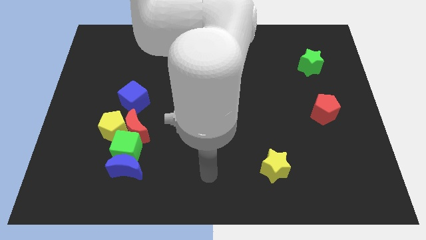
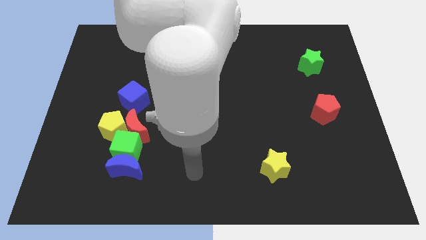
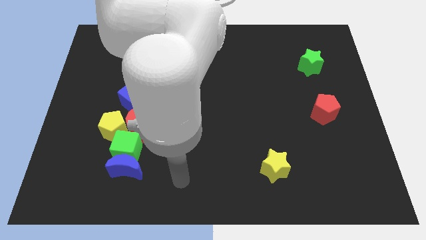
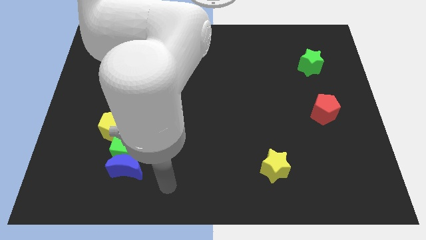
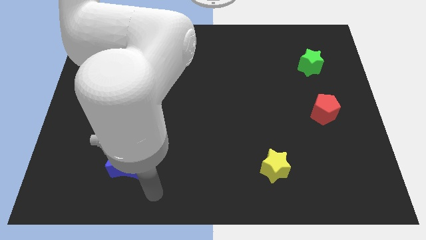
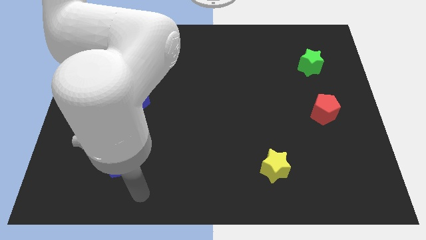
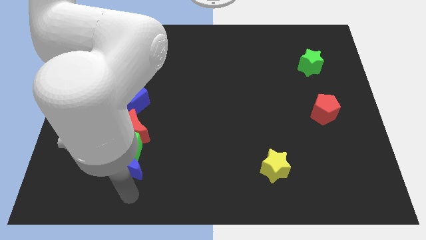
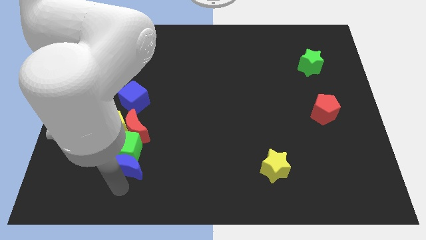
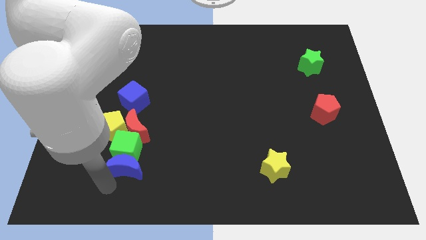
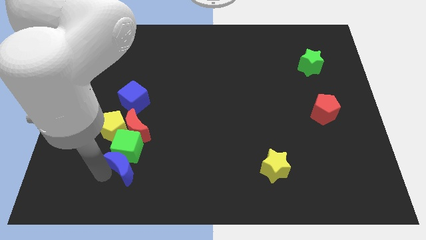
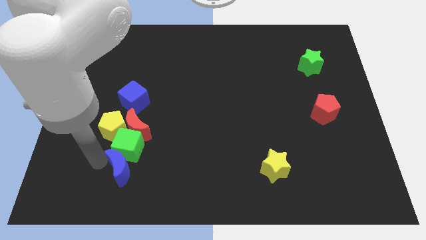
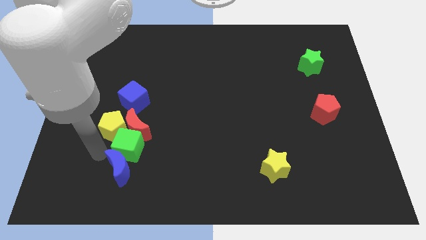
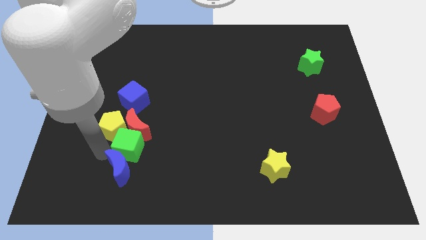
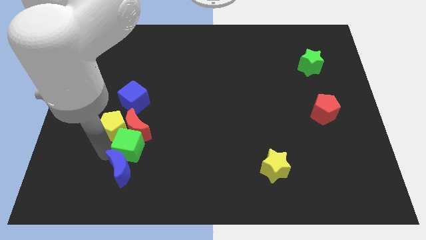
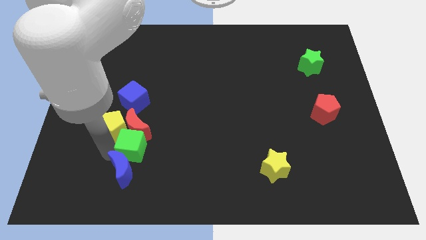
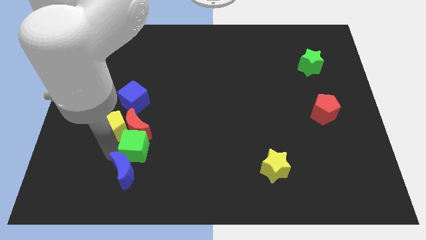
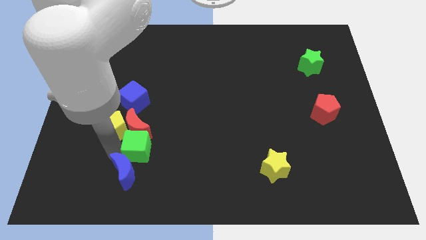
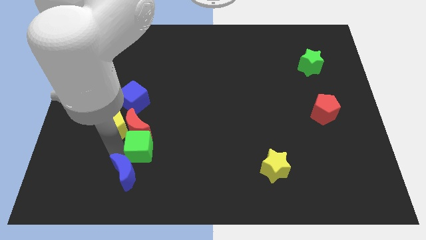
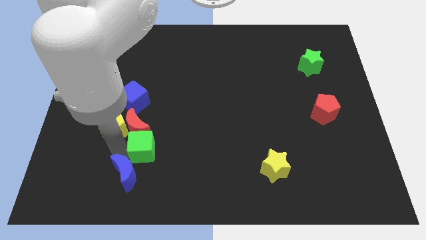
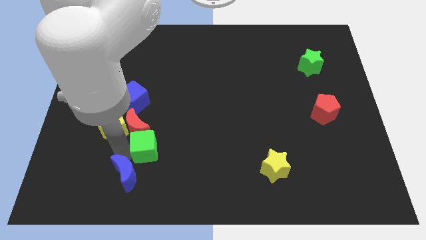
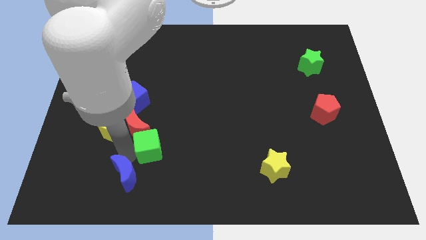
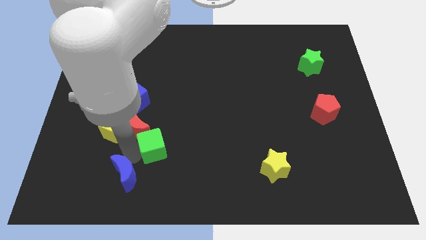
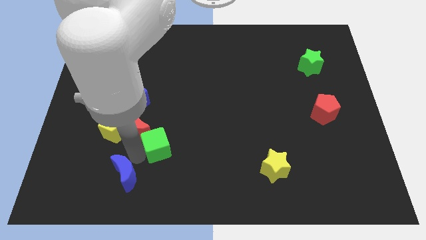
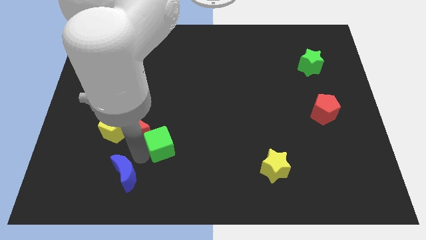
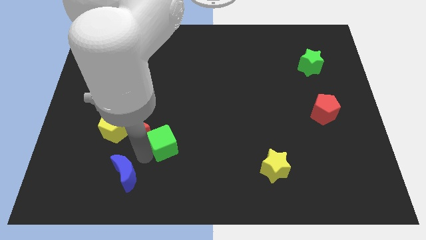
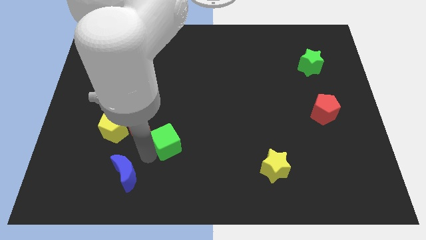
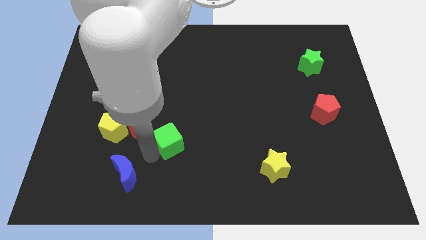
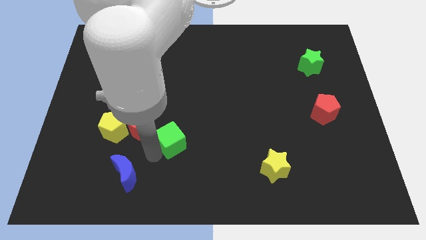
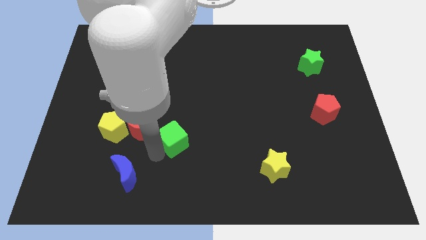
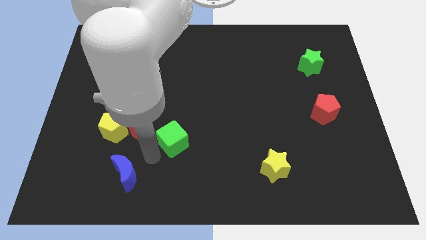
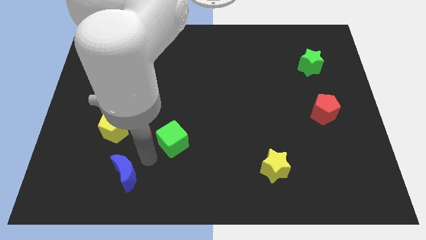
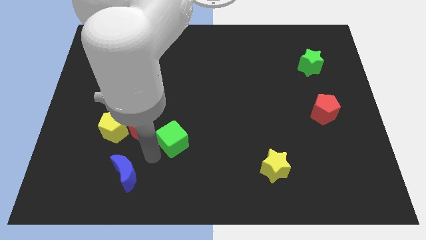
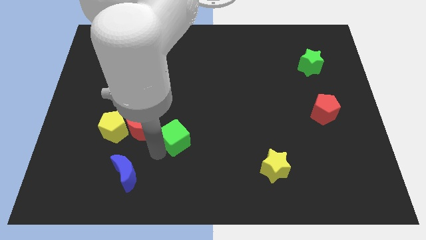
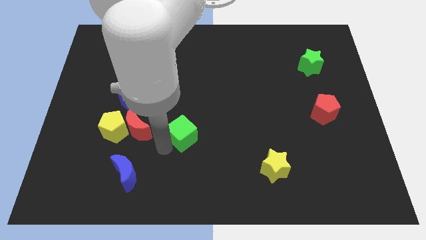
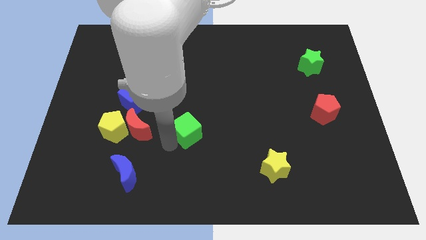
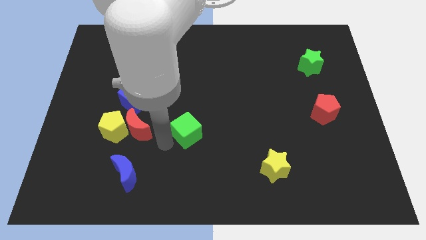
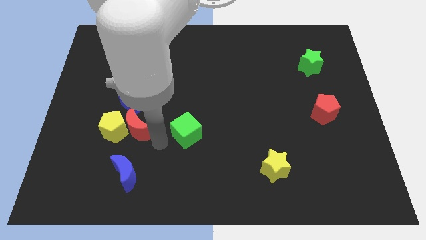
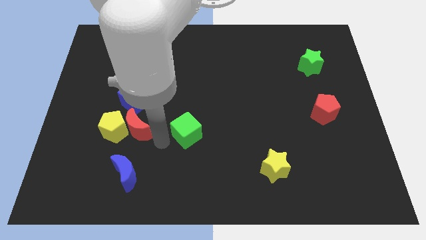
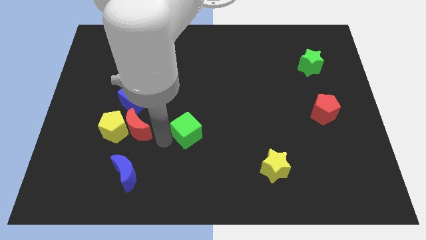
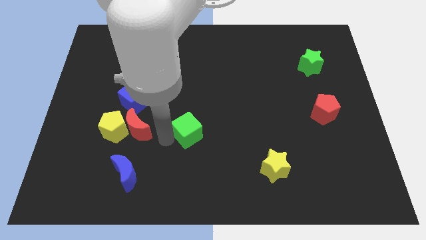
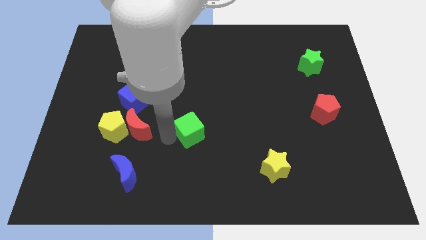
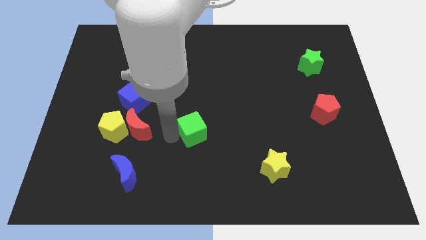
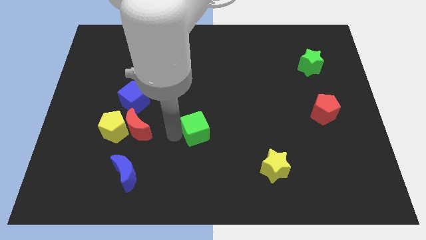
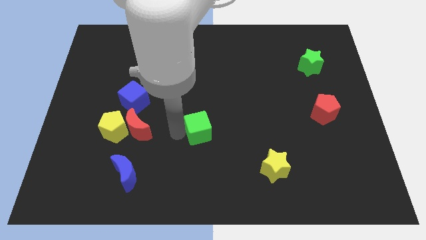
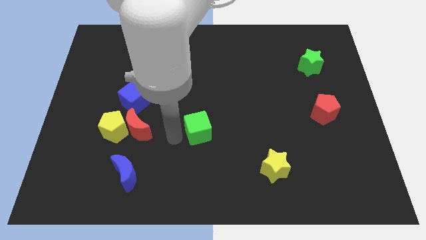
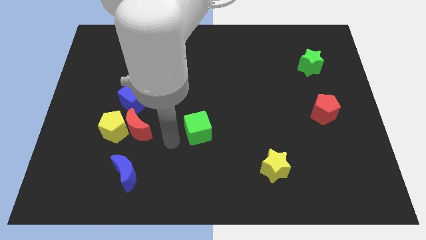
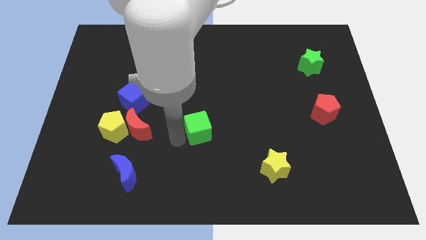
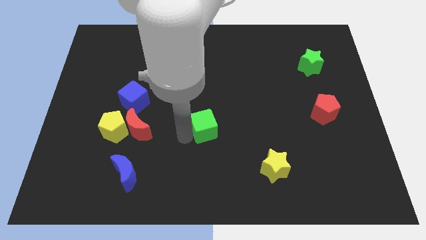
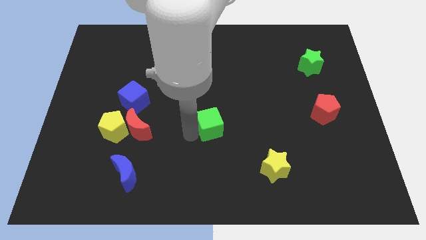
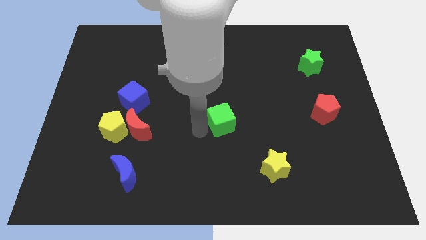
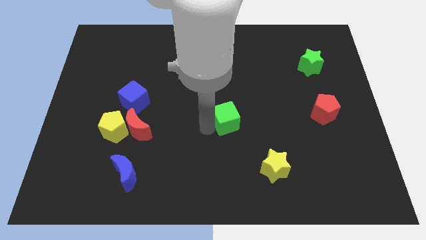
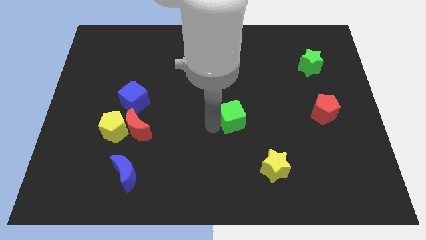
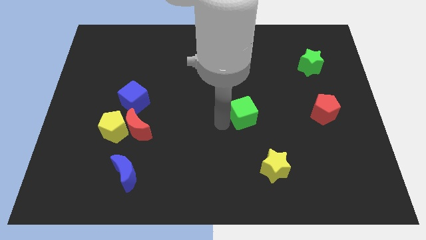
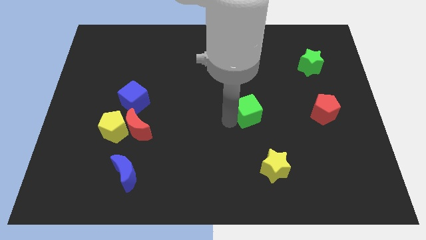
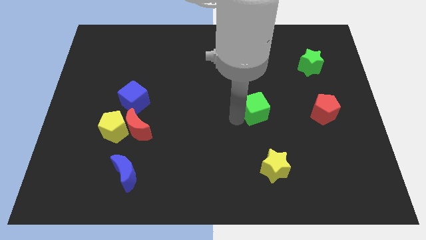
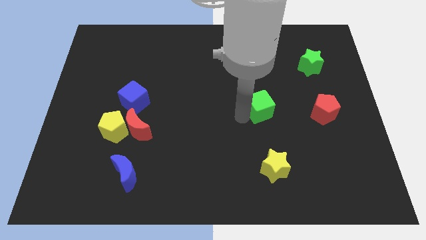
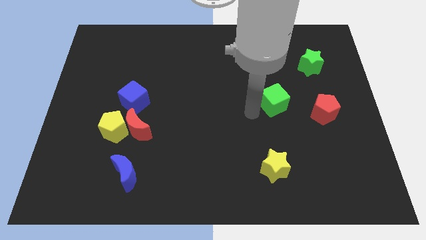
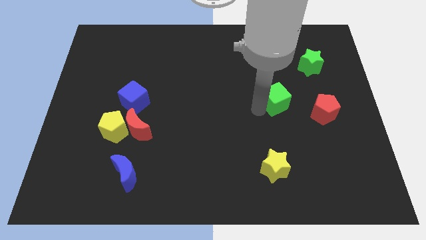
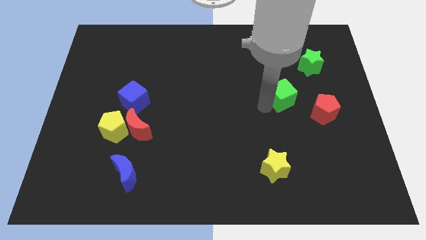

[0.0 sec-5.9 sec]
put the green cube to the top left of the red pentagon

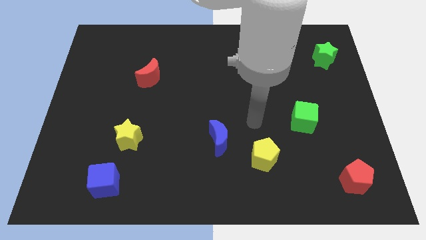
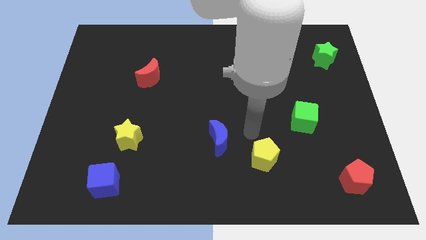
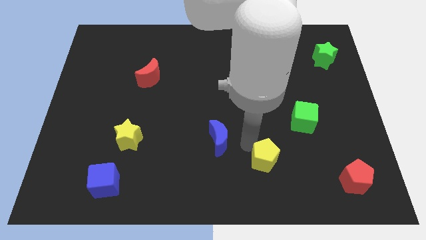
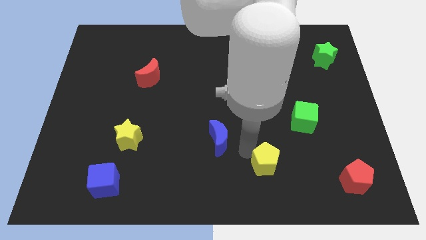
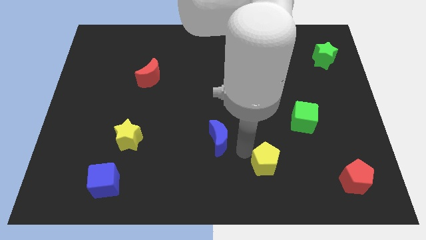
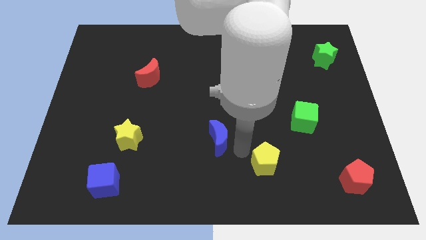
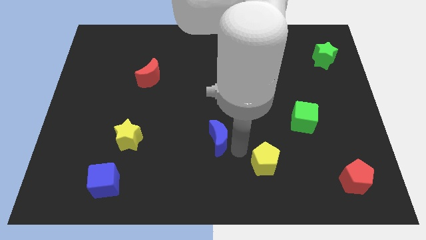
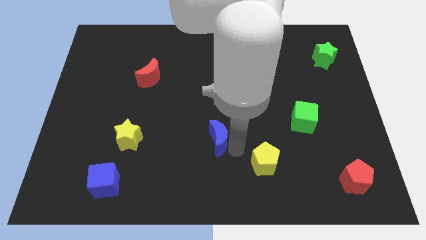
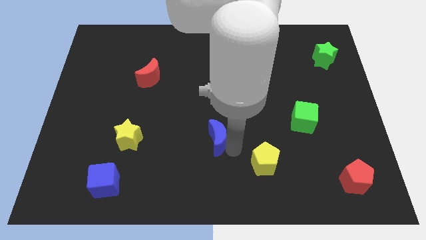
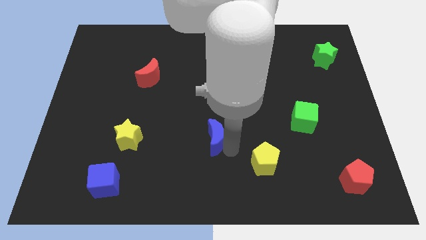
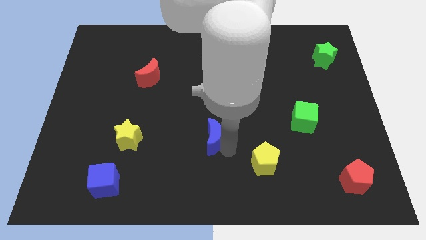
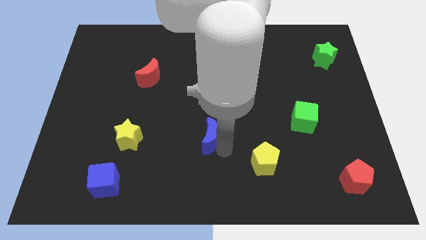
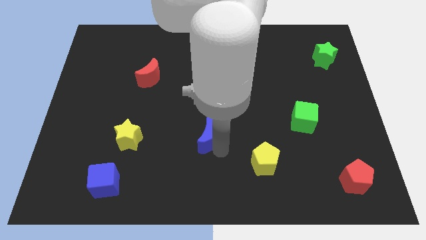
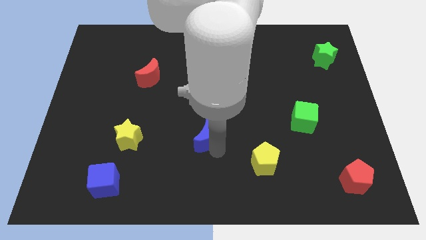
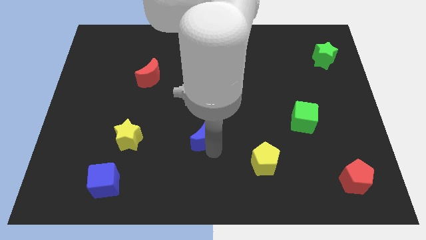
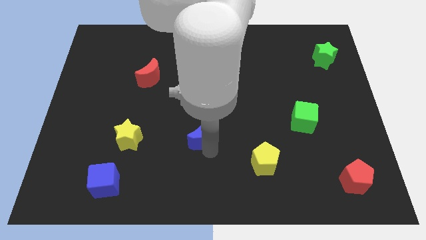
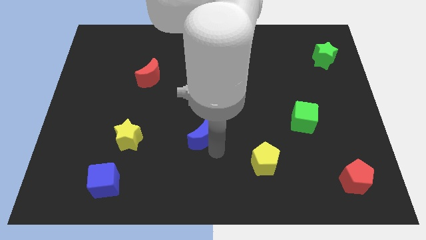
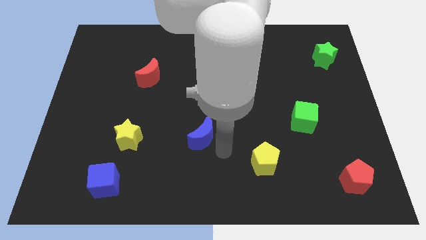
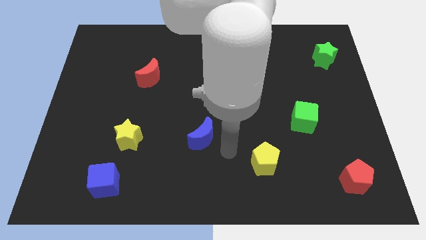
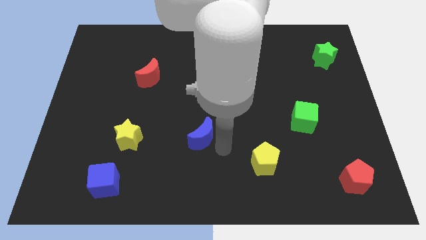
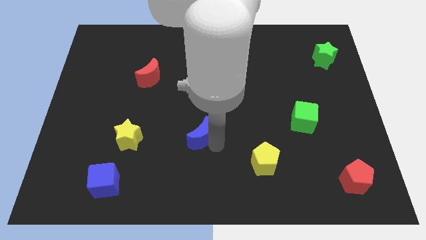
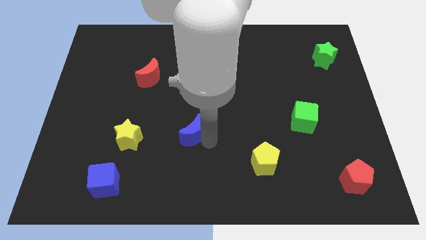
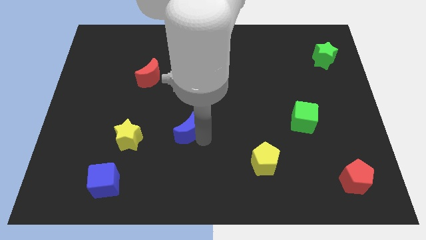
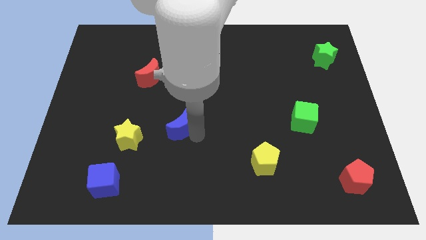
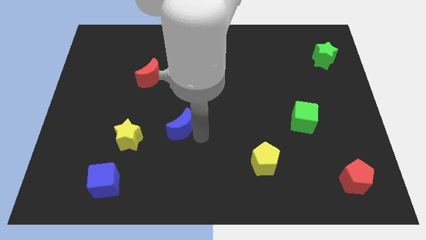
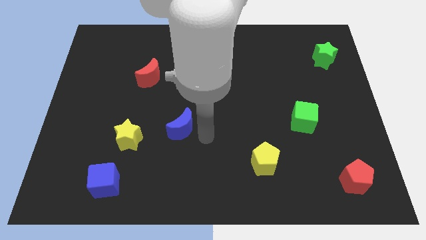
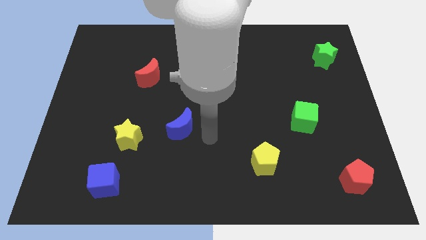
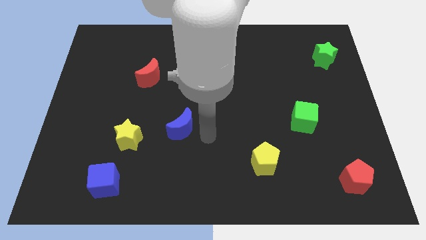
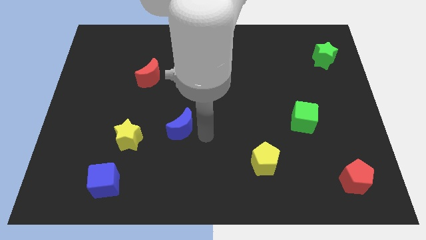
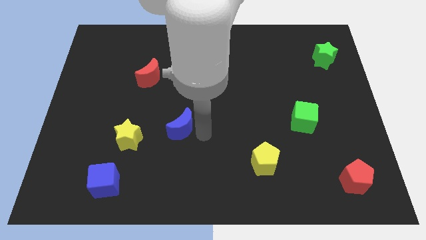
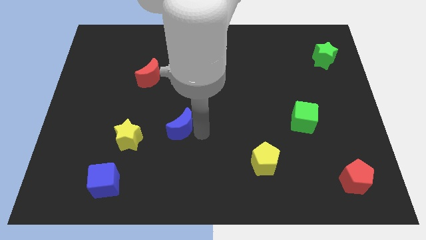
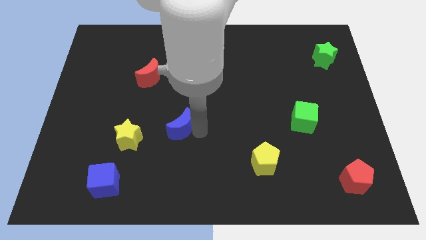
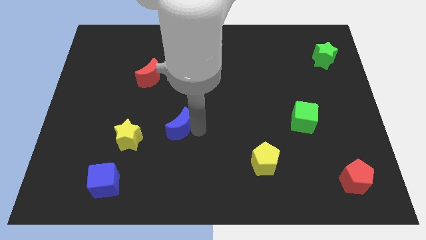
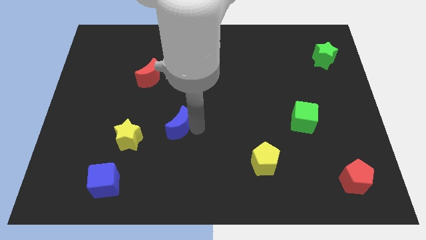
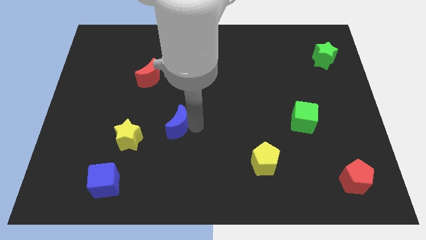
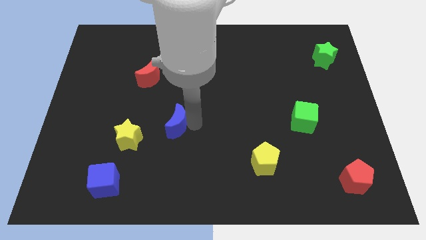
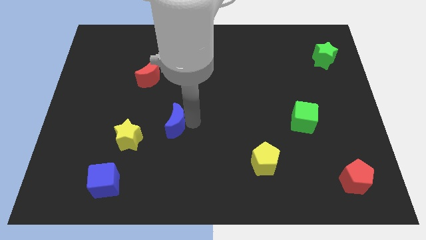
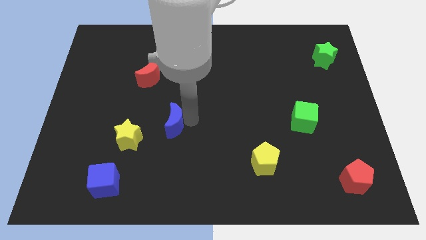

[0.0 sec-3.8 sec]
move the blue moon diagonally up and to the right of the yellow star
